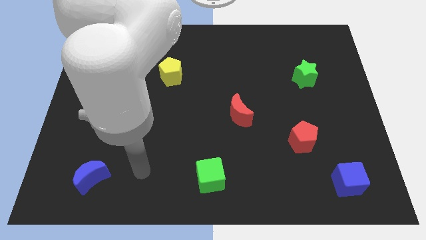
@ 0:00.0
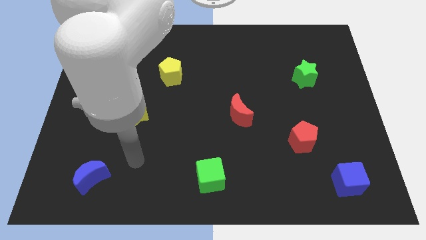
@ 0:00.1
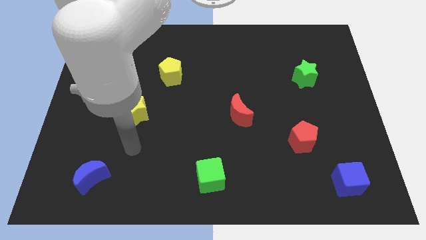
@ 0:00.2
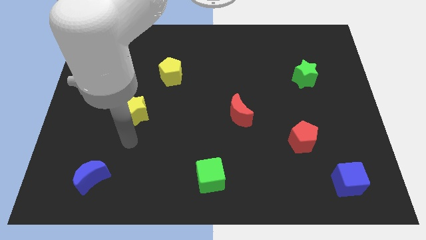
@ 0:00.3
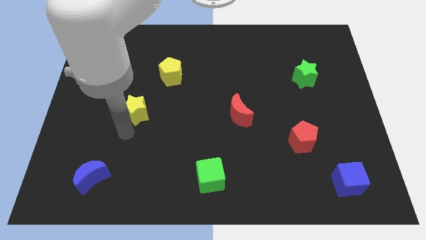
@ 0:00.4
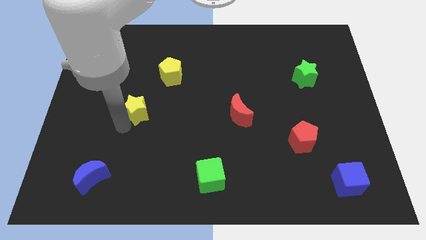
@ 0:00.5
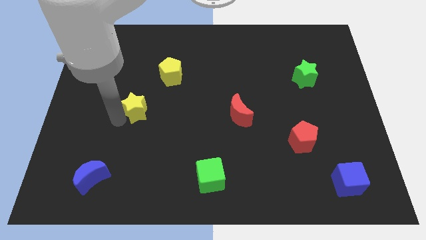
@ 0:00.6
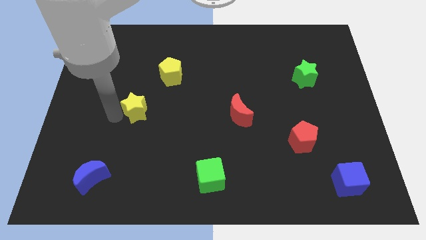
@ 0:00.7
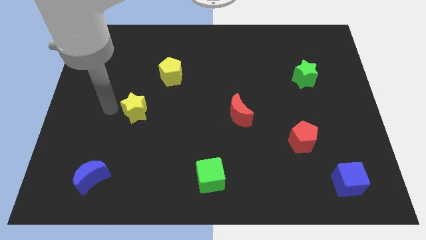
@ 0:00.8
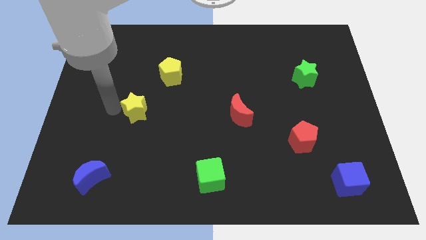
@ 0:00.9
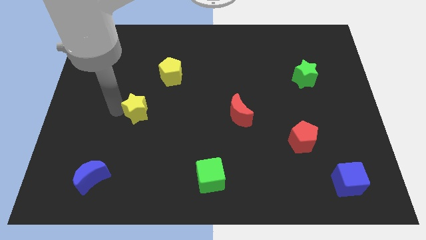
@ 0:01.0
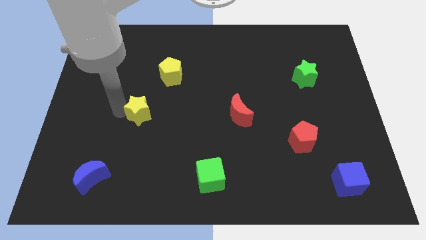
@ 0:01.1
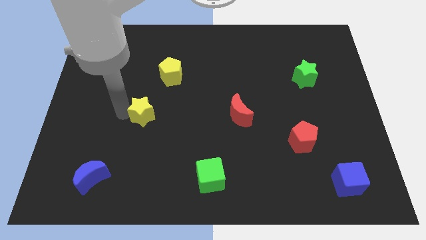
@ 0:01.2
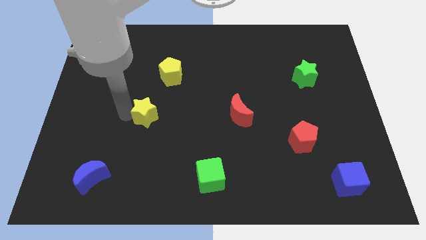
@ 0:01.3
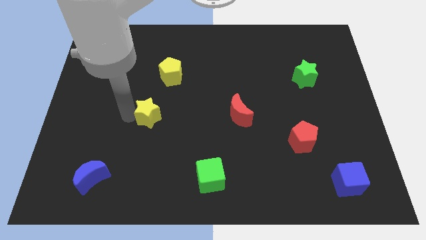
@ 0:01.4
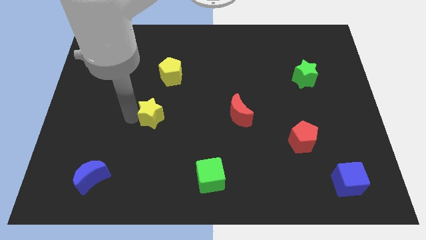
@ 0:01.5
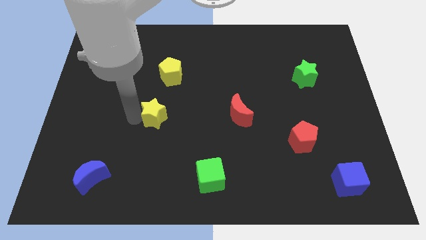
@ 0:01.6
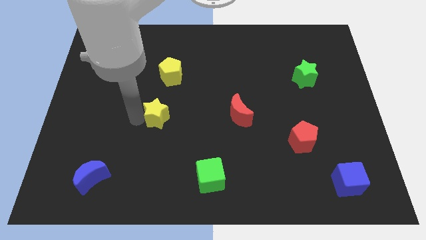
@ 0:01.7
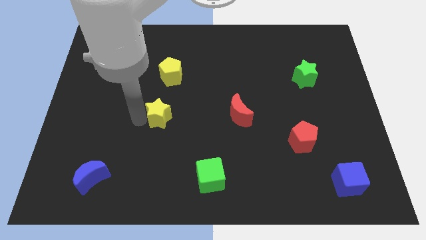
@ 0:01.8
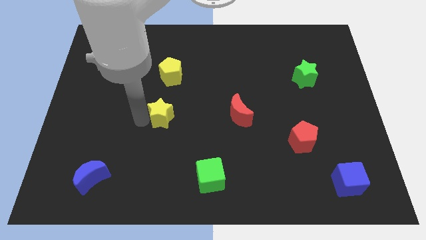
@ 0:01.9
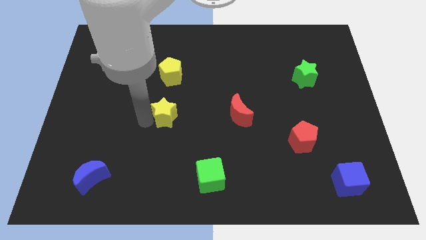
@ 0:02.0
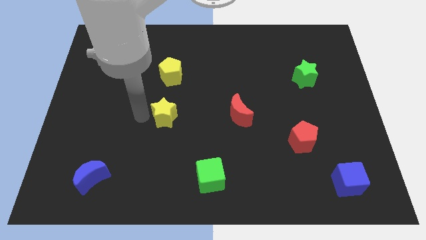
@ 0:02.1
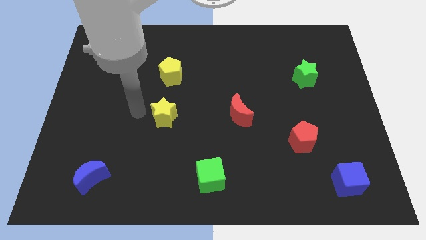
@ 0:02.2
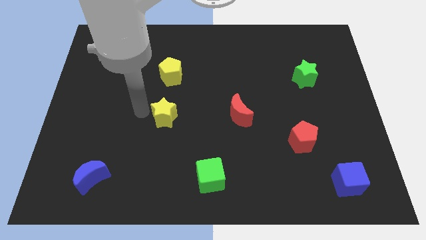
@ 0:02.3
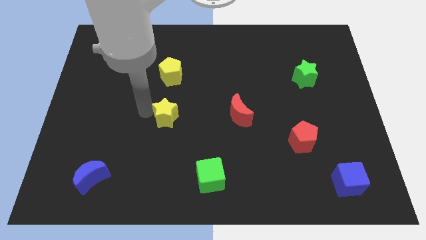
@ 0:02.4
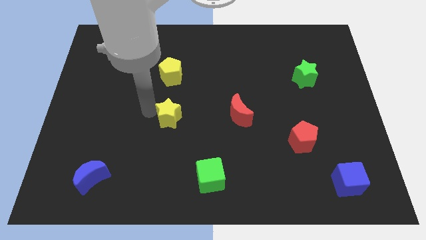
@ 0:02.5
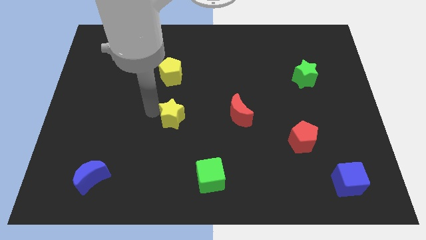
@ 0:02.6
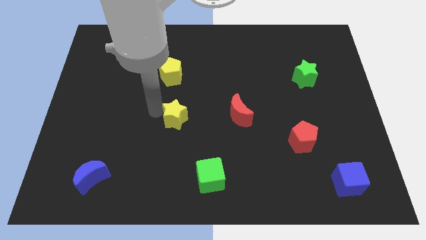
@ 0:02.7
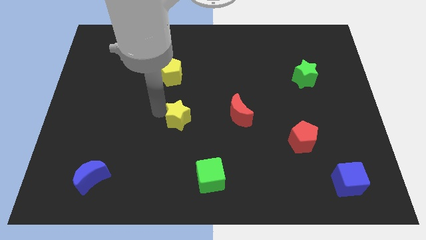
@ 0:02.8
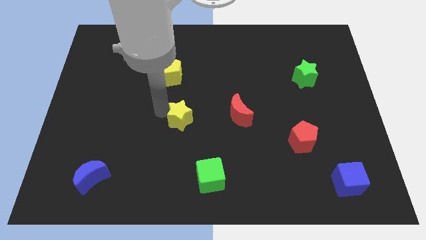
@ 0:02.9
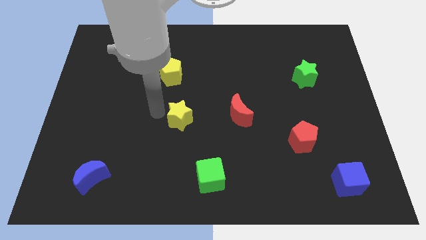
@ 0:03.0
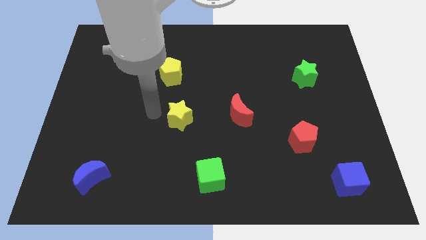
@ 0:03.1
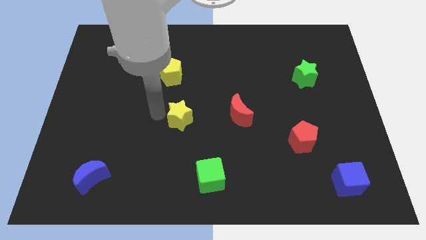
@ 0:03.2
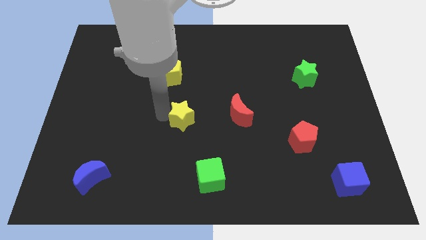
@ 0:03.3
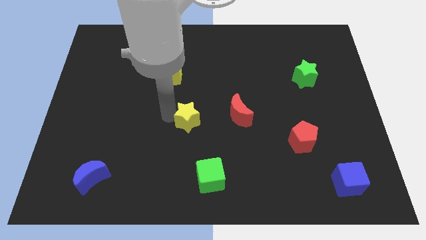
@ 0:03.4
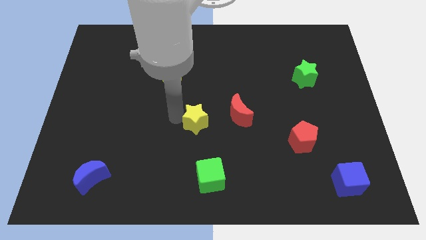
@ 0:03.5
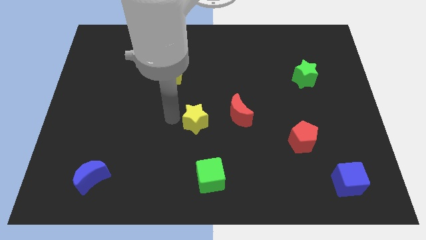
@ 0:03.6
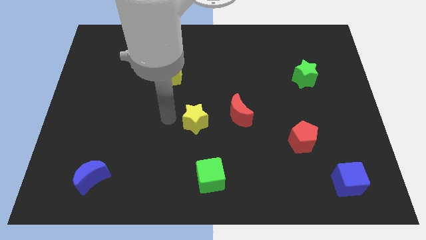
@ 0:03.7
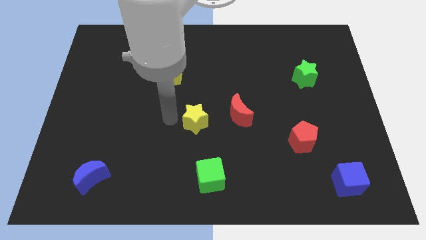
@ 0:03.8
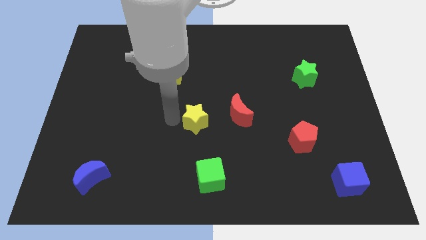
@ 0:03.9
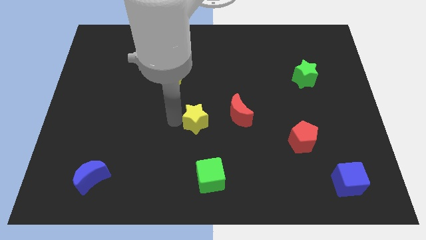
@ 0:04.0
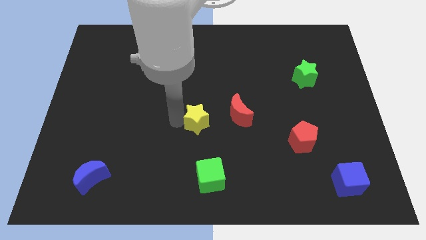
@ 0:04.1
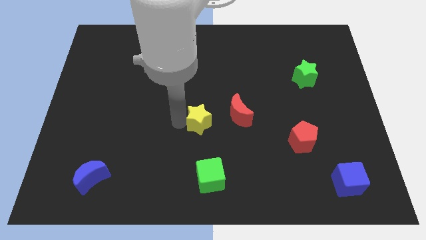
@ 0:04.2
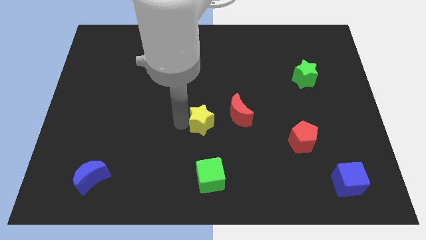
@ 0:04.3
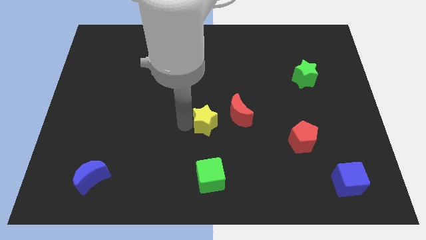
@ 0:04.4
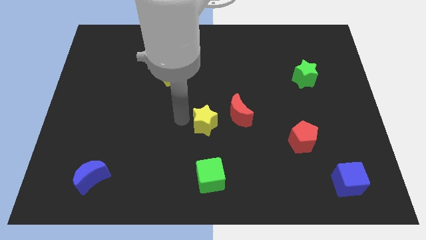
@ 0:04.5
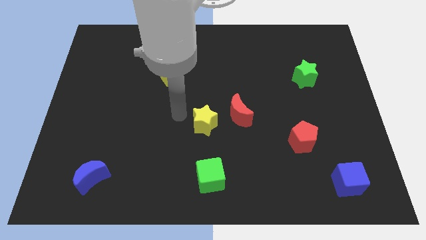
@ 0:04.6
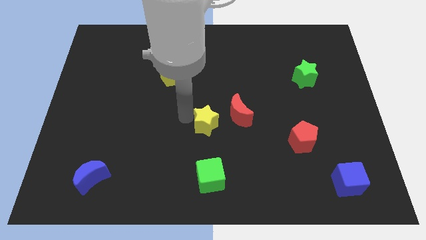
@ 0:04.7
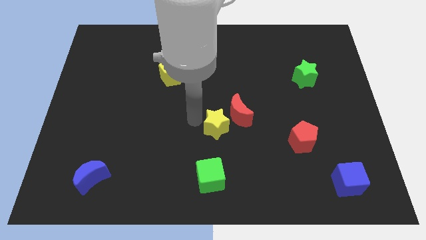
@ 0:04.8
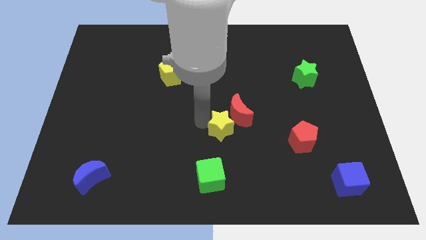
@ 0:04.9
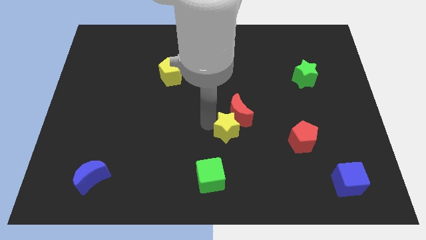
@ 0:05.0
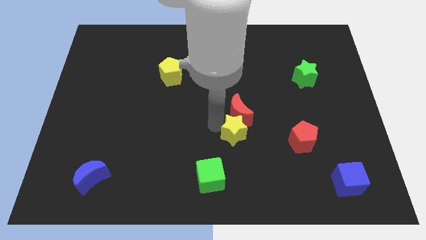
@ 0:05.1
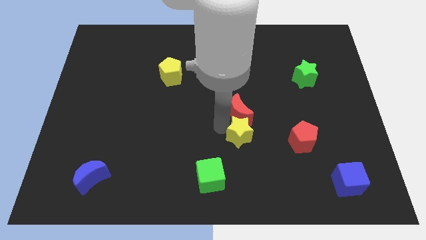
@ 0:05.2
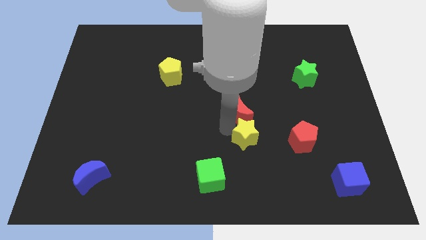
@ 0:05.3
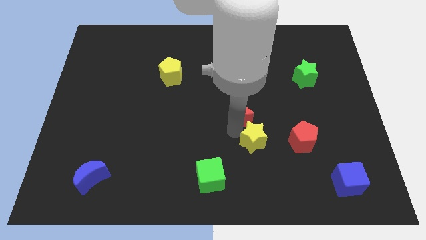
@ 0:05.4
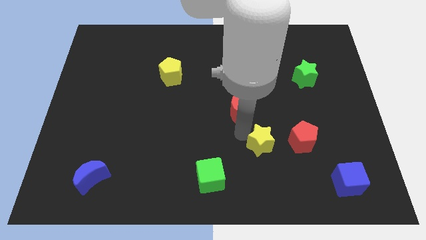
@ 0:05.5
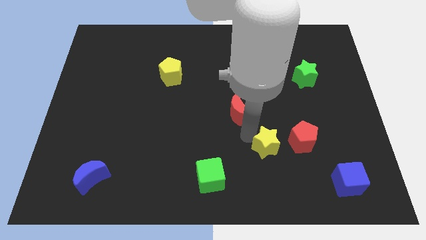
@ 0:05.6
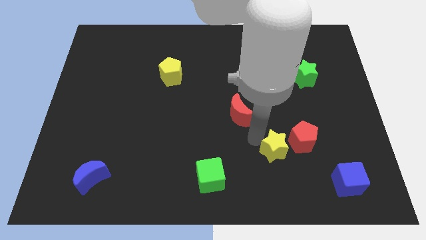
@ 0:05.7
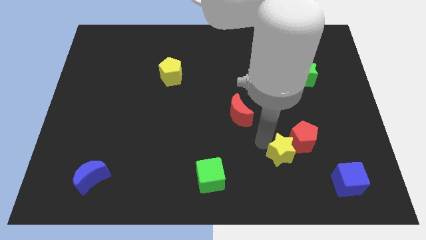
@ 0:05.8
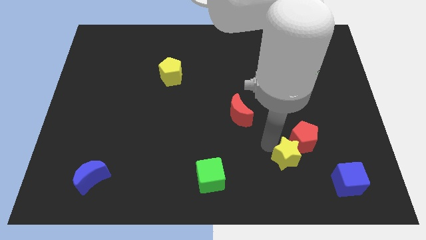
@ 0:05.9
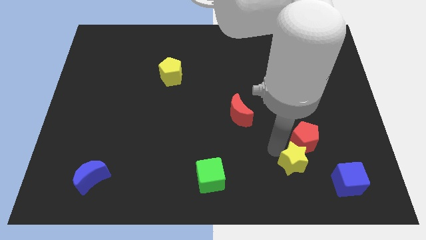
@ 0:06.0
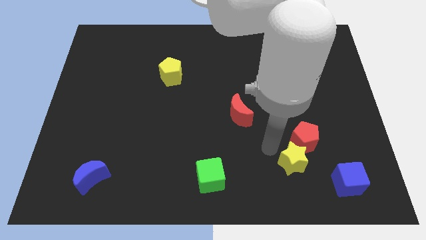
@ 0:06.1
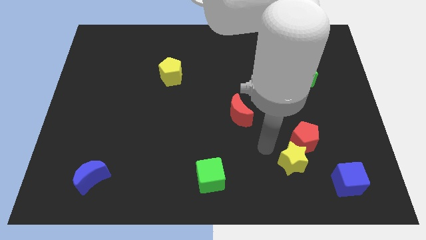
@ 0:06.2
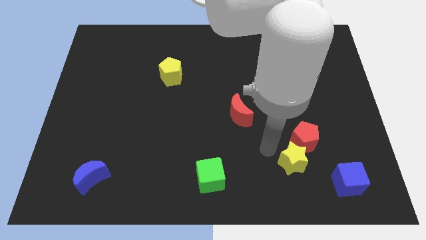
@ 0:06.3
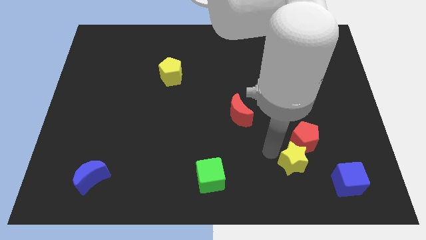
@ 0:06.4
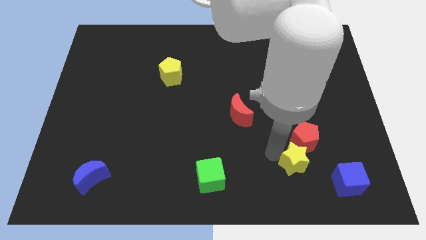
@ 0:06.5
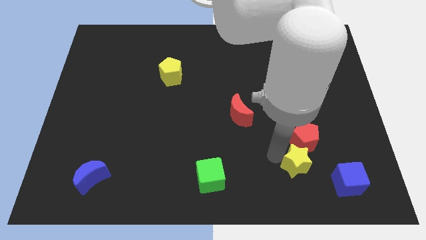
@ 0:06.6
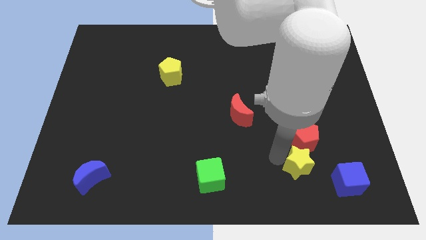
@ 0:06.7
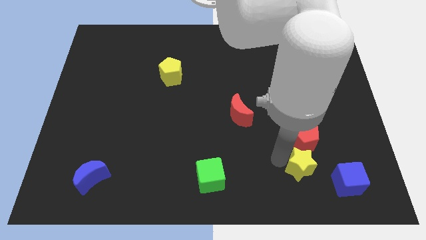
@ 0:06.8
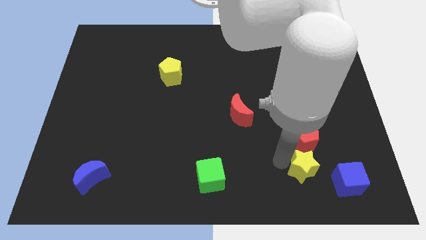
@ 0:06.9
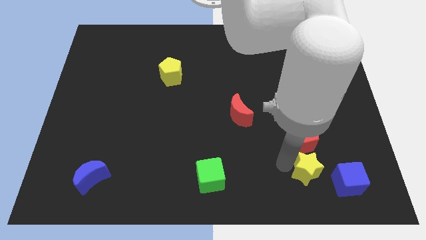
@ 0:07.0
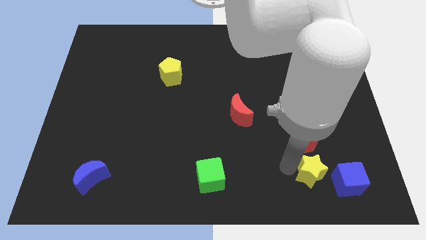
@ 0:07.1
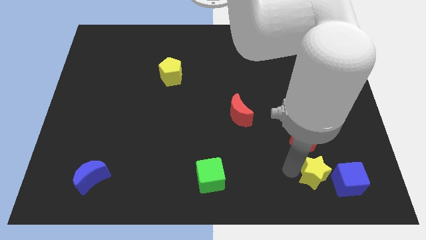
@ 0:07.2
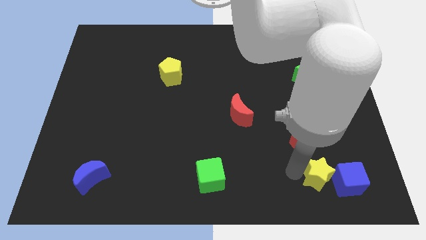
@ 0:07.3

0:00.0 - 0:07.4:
move the yellow star next to the blue cube
